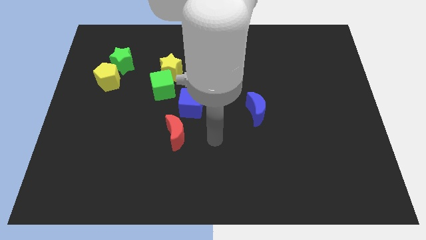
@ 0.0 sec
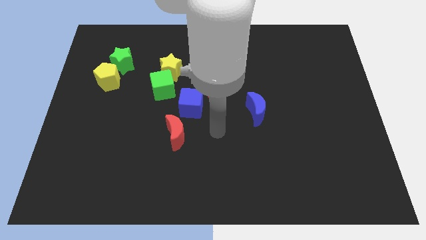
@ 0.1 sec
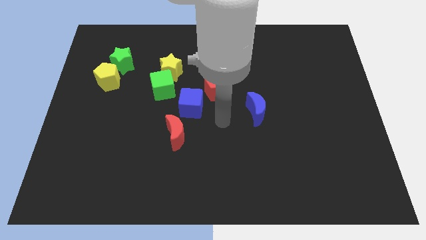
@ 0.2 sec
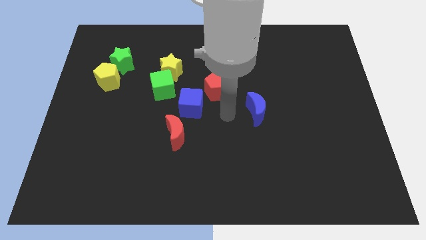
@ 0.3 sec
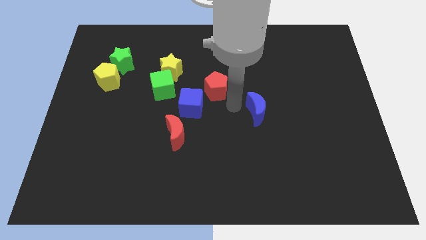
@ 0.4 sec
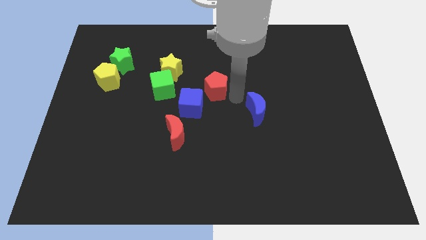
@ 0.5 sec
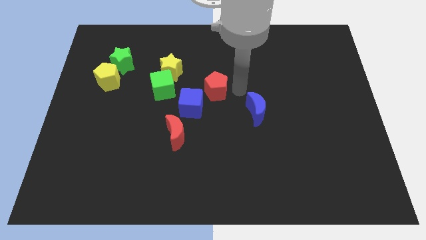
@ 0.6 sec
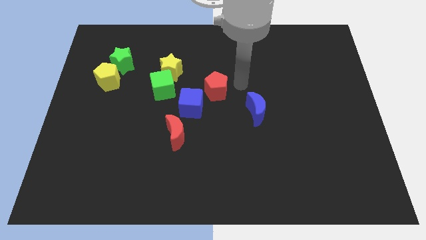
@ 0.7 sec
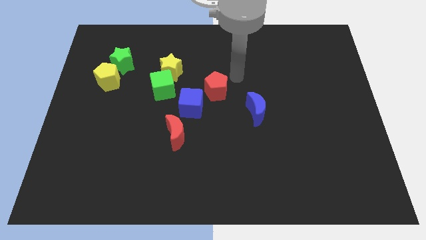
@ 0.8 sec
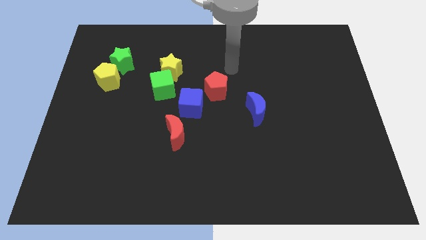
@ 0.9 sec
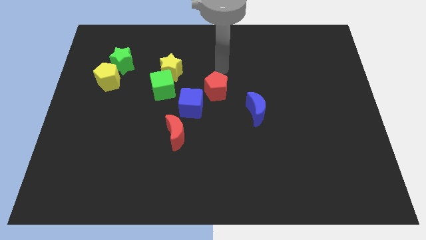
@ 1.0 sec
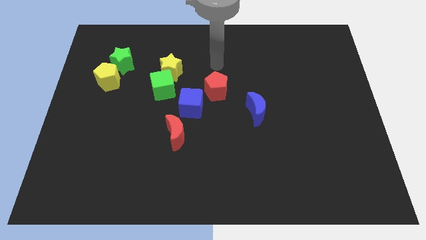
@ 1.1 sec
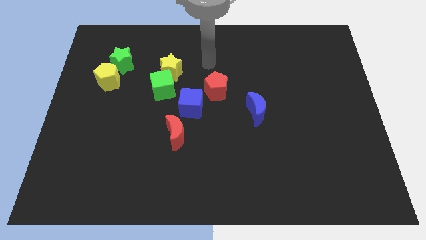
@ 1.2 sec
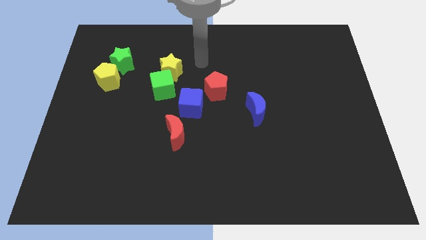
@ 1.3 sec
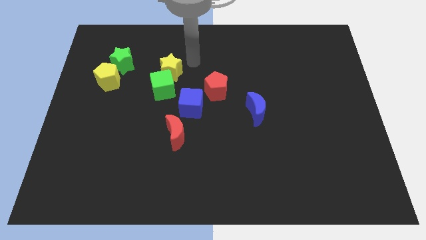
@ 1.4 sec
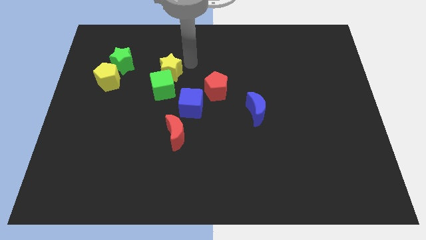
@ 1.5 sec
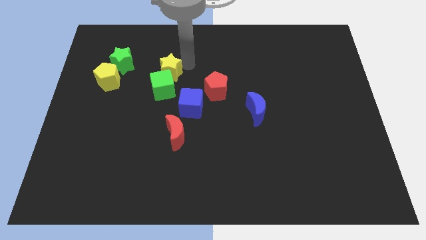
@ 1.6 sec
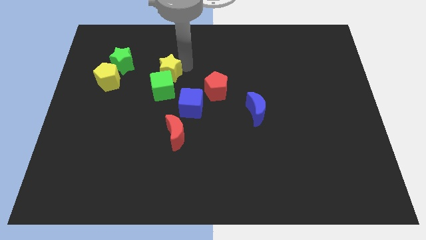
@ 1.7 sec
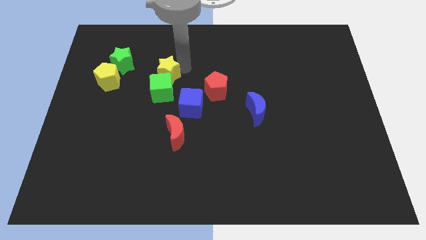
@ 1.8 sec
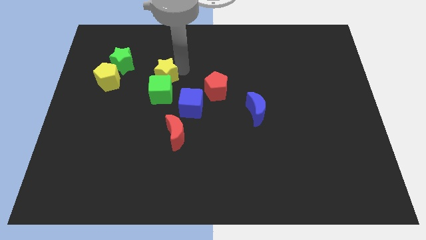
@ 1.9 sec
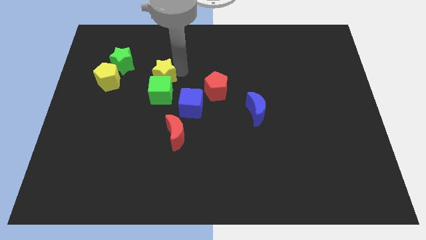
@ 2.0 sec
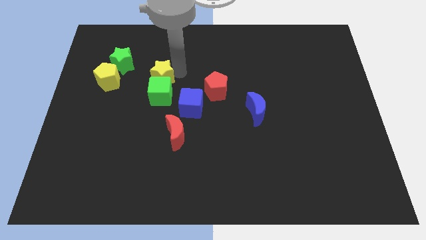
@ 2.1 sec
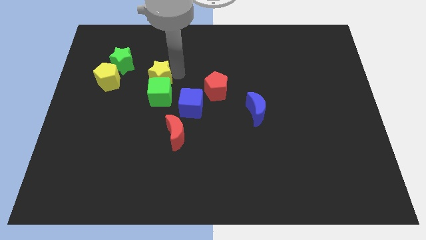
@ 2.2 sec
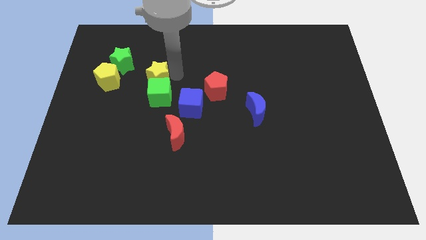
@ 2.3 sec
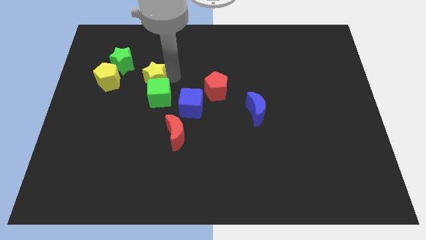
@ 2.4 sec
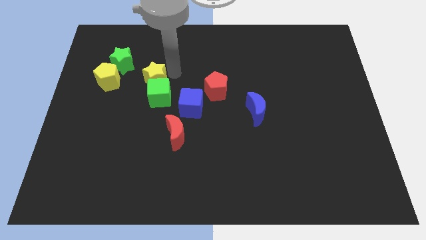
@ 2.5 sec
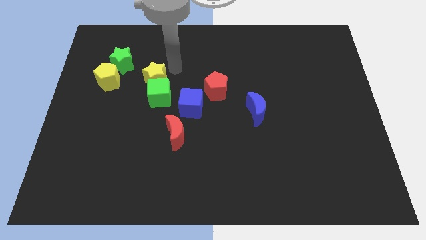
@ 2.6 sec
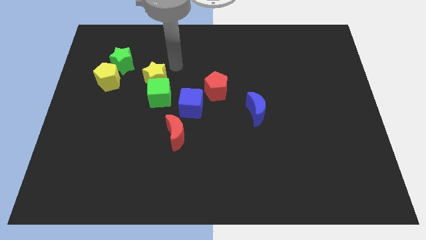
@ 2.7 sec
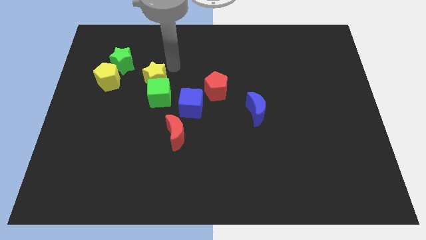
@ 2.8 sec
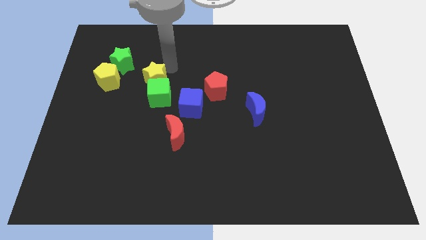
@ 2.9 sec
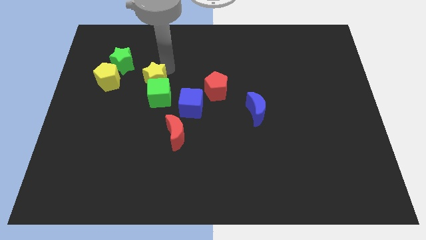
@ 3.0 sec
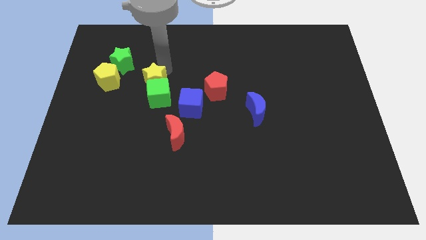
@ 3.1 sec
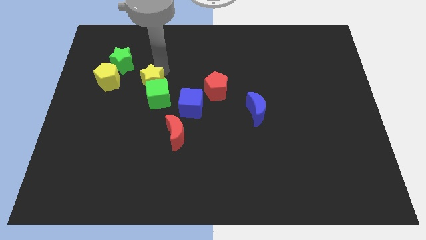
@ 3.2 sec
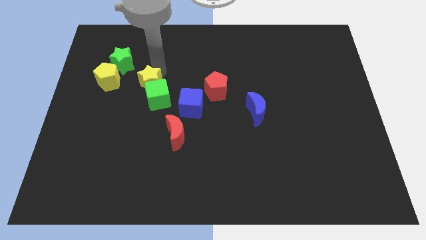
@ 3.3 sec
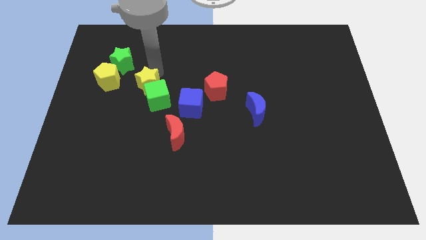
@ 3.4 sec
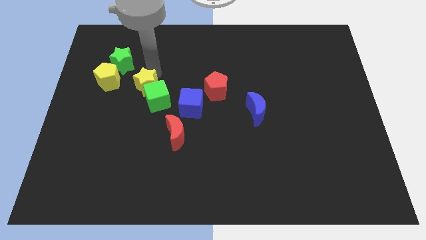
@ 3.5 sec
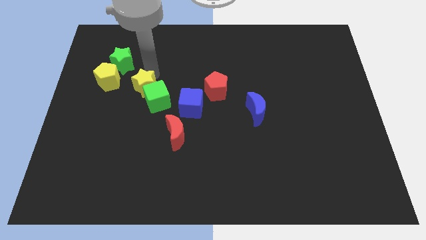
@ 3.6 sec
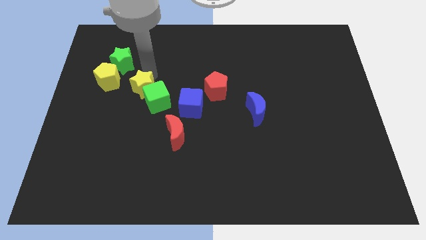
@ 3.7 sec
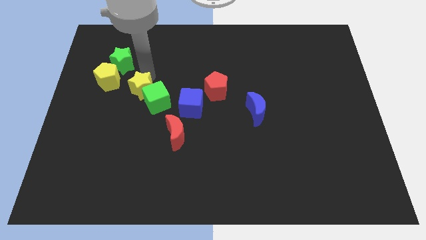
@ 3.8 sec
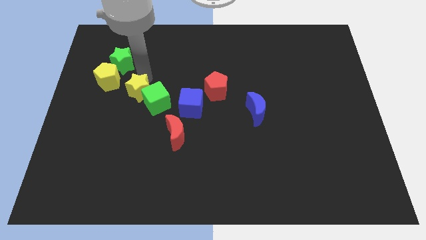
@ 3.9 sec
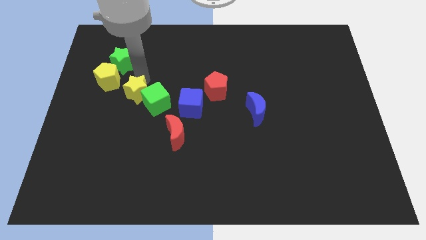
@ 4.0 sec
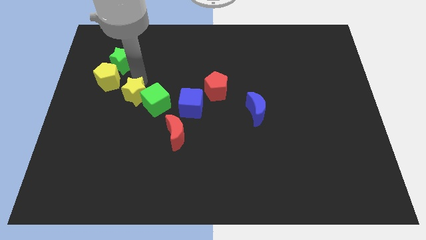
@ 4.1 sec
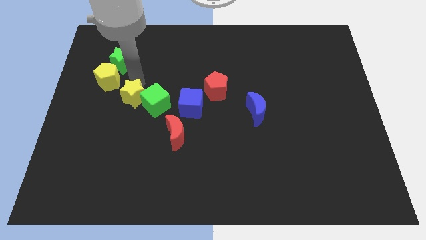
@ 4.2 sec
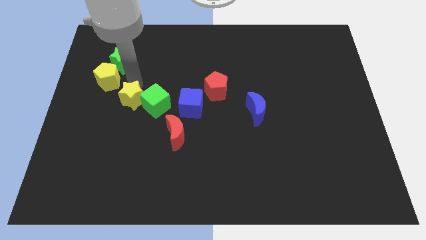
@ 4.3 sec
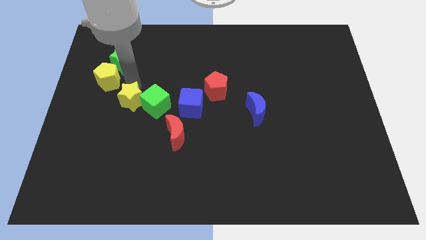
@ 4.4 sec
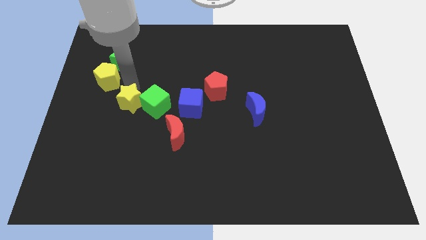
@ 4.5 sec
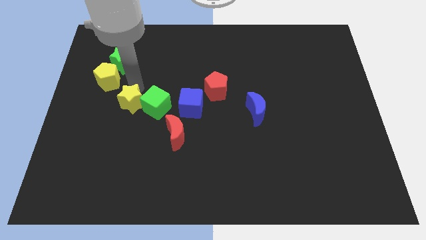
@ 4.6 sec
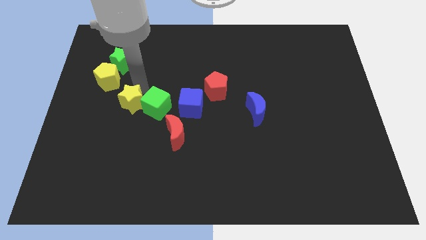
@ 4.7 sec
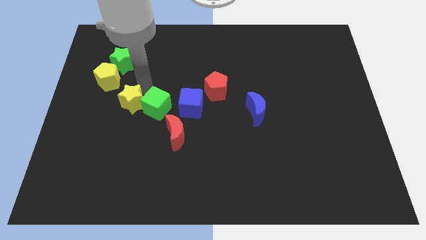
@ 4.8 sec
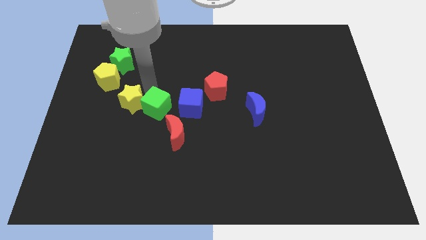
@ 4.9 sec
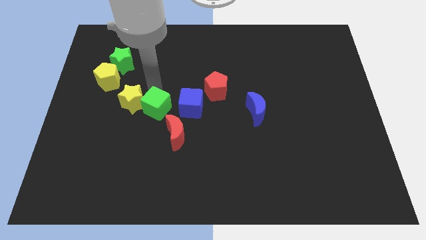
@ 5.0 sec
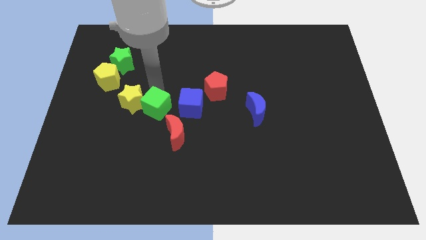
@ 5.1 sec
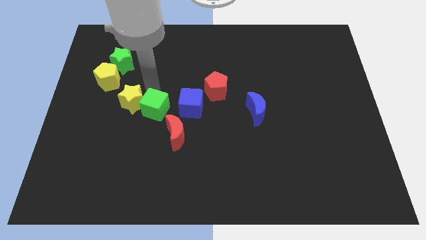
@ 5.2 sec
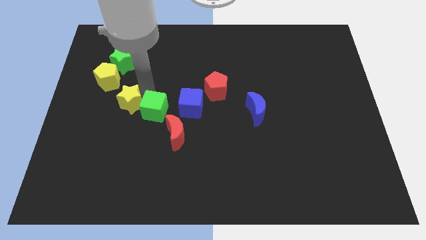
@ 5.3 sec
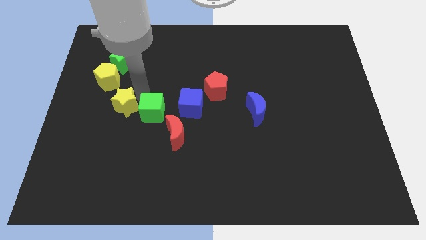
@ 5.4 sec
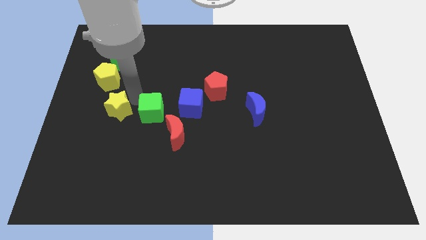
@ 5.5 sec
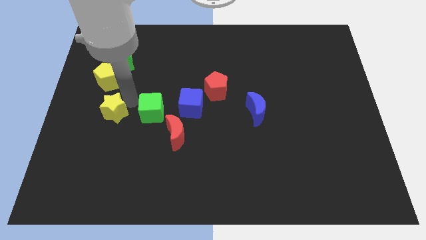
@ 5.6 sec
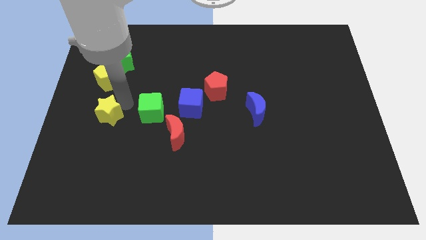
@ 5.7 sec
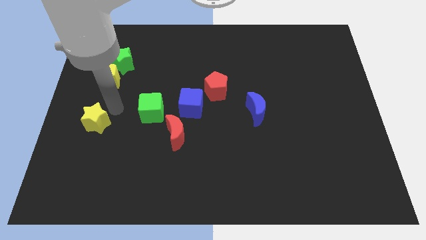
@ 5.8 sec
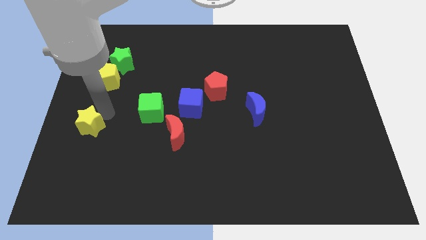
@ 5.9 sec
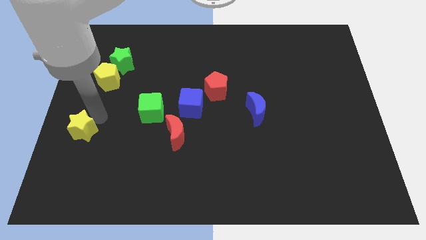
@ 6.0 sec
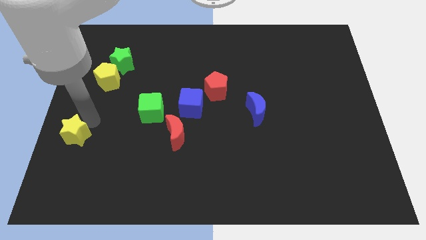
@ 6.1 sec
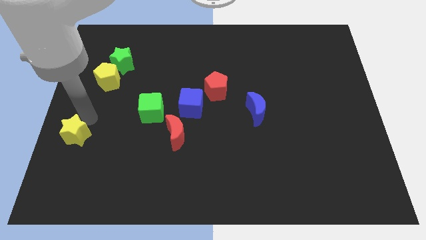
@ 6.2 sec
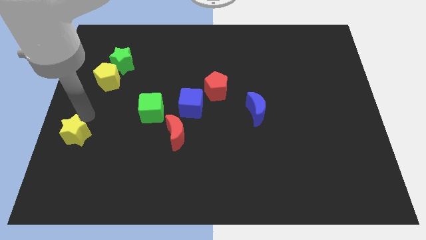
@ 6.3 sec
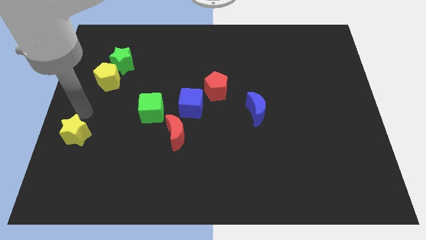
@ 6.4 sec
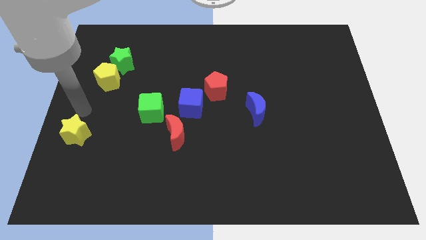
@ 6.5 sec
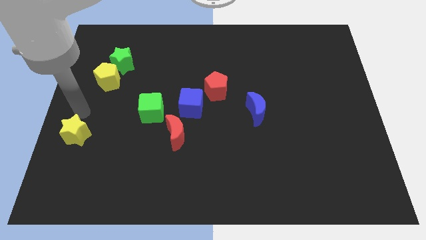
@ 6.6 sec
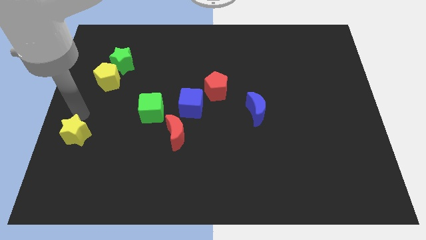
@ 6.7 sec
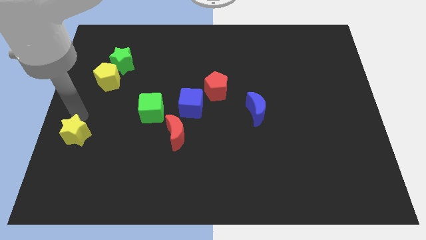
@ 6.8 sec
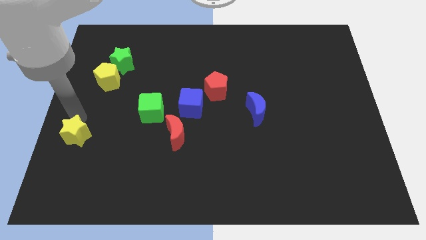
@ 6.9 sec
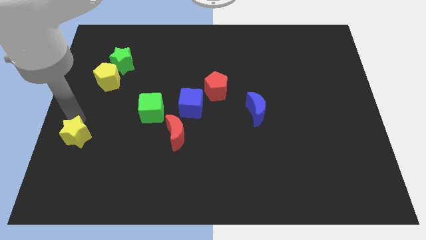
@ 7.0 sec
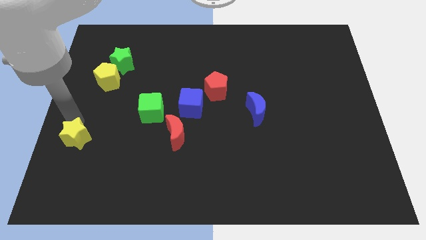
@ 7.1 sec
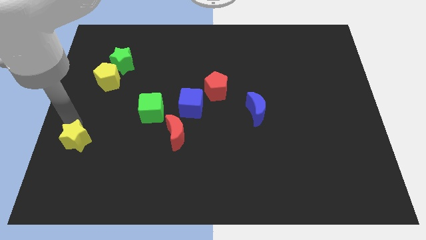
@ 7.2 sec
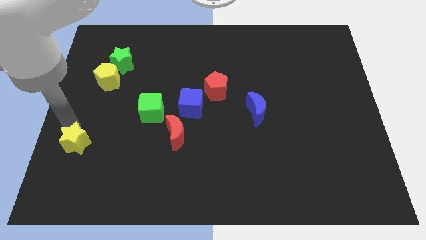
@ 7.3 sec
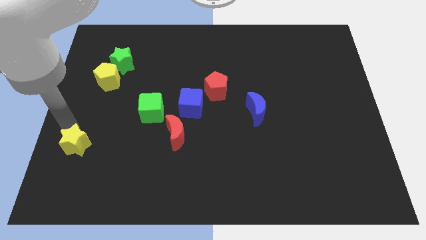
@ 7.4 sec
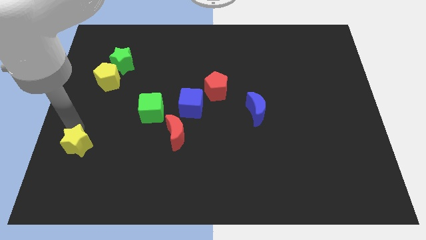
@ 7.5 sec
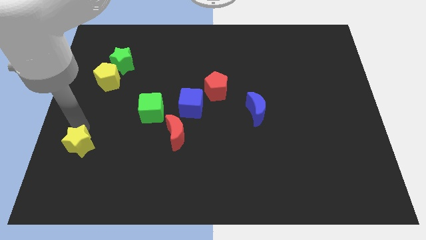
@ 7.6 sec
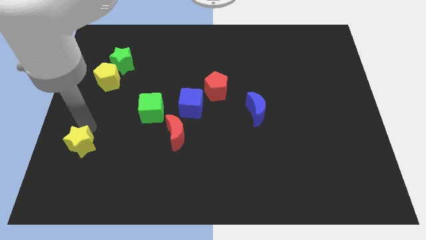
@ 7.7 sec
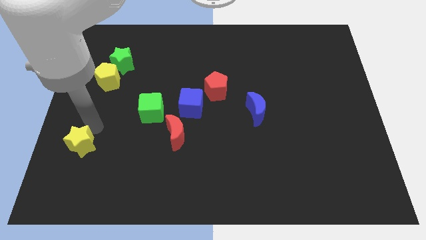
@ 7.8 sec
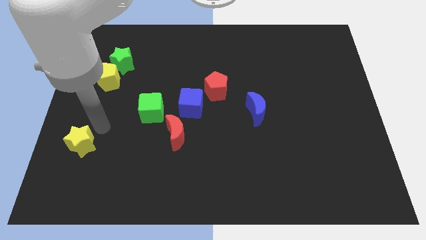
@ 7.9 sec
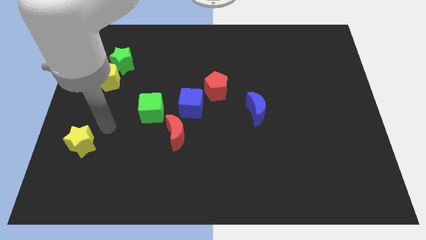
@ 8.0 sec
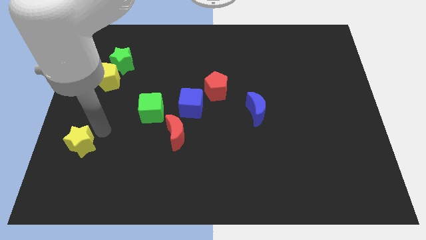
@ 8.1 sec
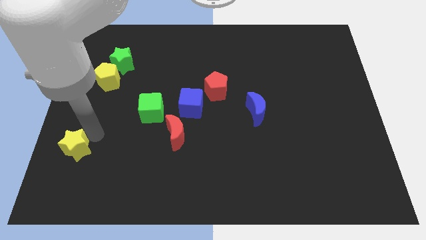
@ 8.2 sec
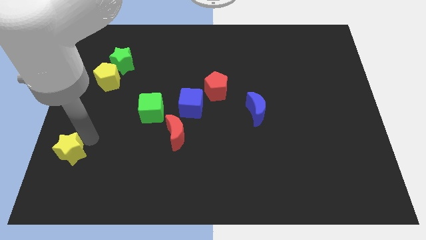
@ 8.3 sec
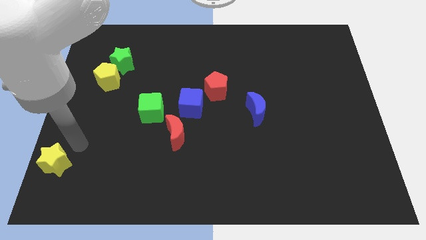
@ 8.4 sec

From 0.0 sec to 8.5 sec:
move the yellow star to the bottom left corner
